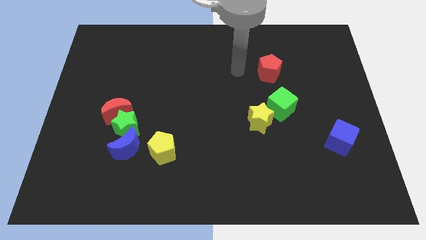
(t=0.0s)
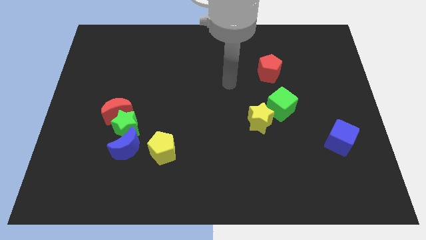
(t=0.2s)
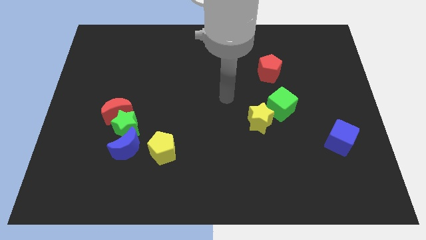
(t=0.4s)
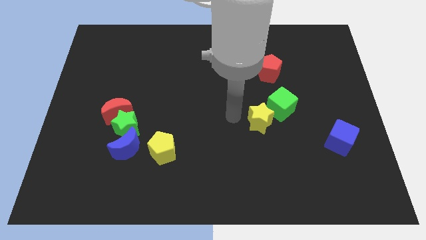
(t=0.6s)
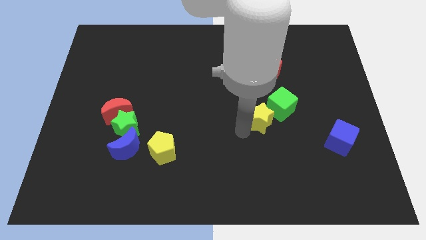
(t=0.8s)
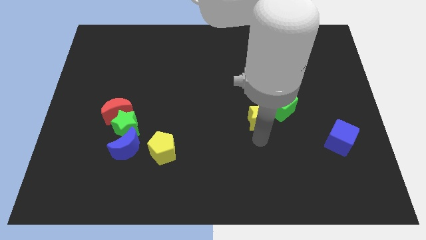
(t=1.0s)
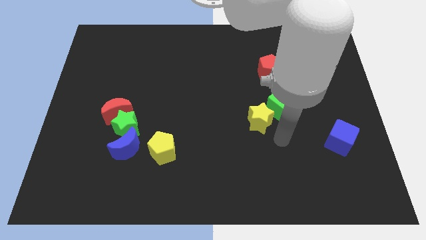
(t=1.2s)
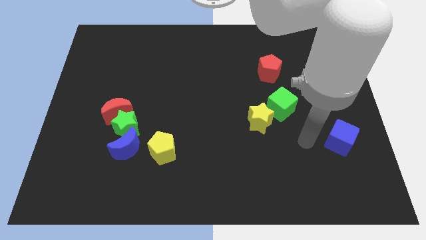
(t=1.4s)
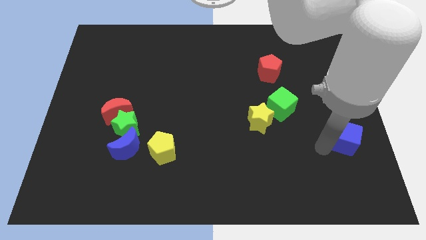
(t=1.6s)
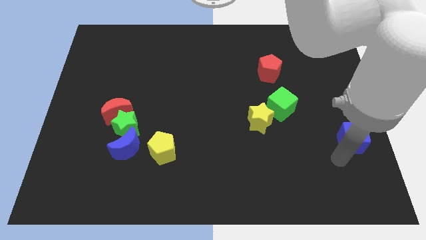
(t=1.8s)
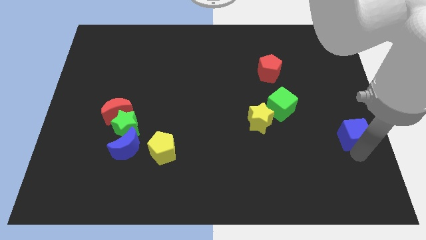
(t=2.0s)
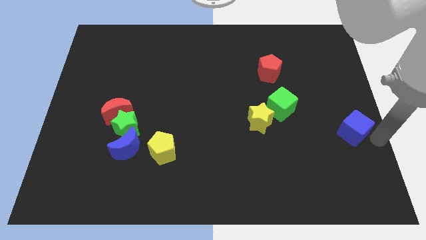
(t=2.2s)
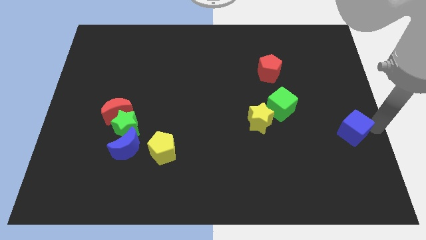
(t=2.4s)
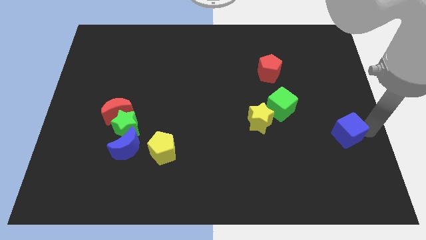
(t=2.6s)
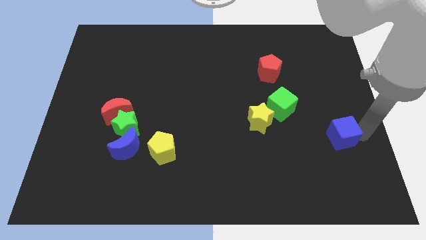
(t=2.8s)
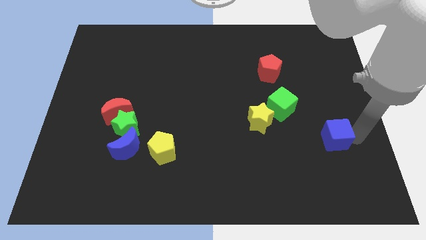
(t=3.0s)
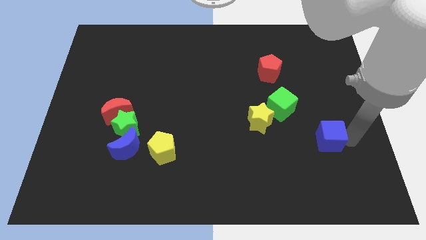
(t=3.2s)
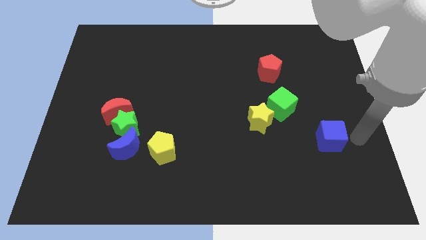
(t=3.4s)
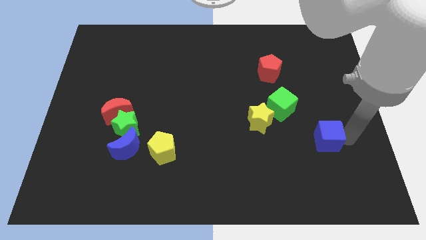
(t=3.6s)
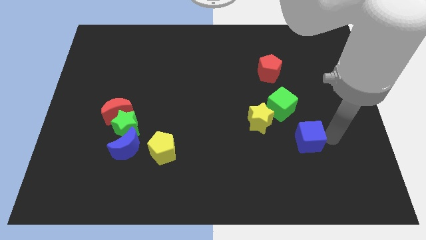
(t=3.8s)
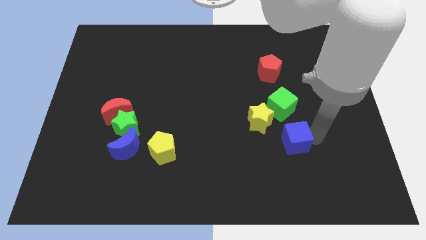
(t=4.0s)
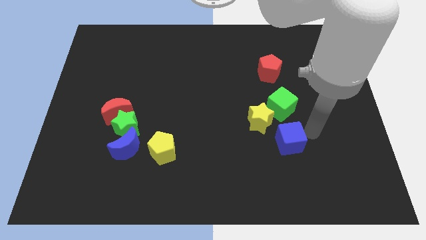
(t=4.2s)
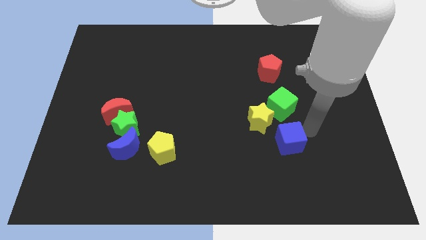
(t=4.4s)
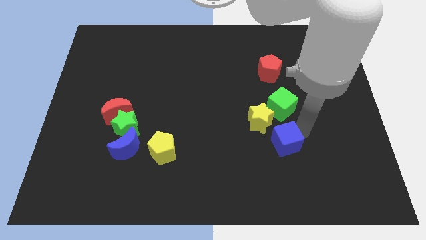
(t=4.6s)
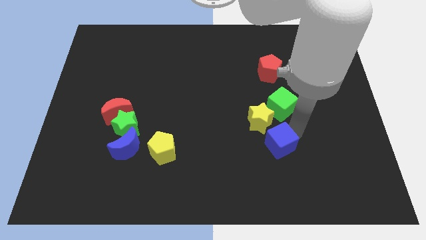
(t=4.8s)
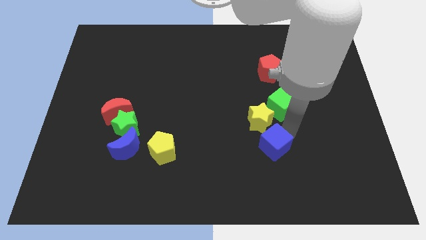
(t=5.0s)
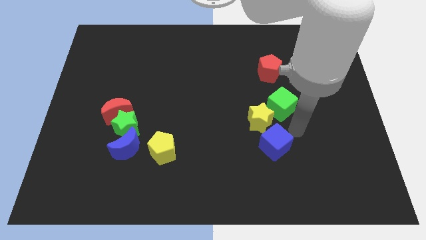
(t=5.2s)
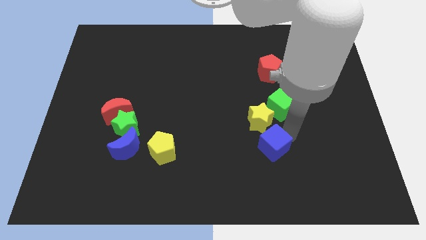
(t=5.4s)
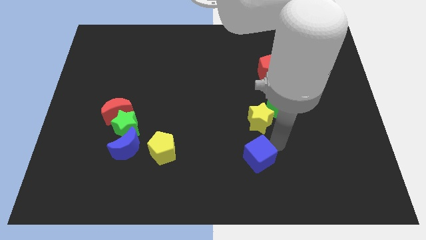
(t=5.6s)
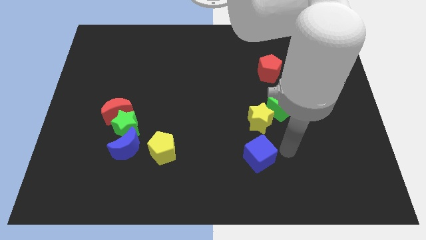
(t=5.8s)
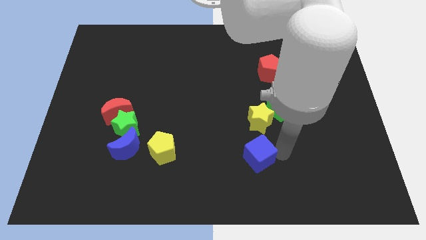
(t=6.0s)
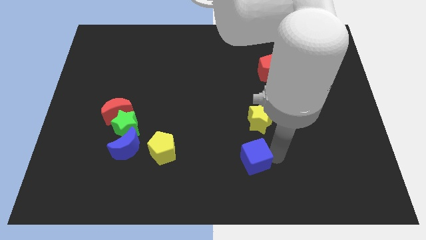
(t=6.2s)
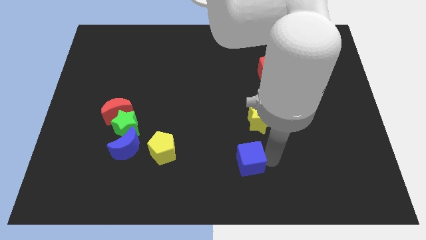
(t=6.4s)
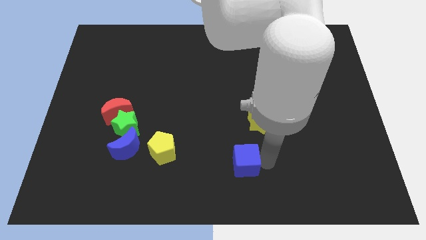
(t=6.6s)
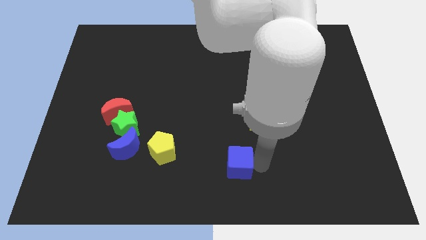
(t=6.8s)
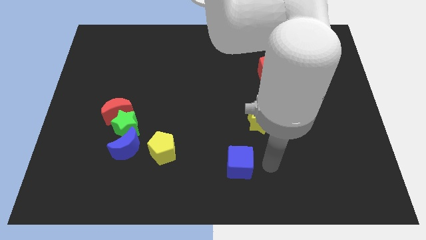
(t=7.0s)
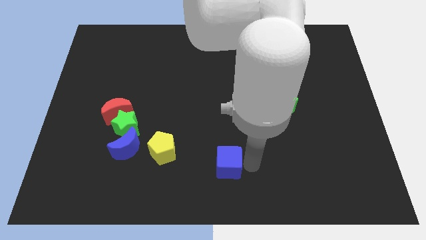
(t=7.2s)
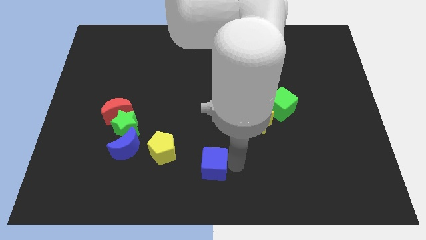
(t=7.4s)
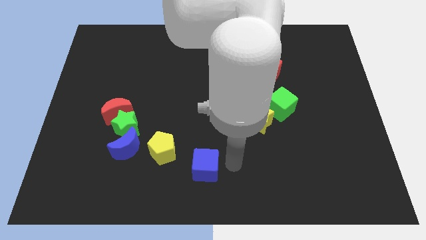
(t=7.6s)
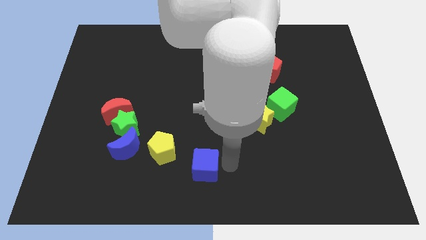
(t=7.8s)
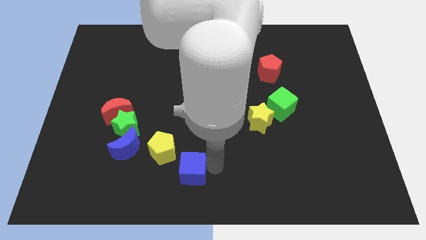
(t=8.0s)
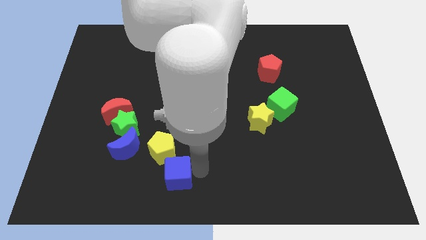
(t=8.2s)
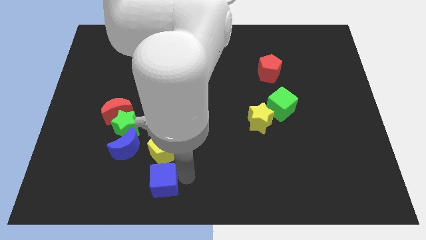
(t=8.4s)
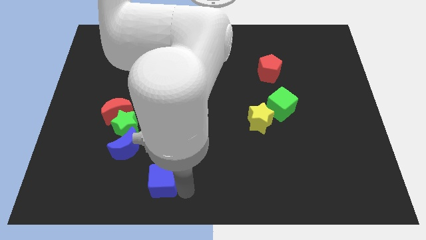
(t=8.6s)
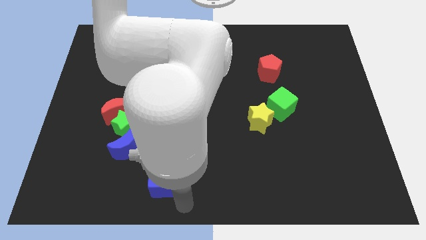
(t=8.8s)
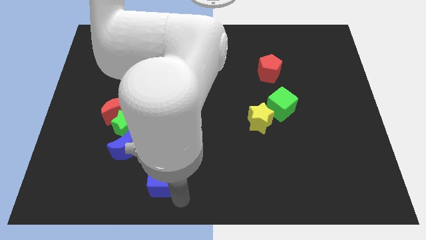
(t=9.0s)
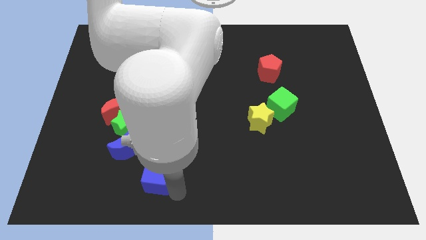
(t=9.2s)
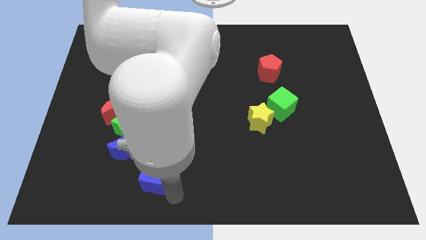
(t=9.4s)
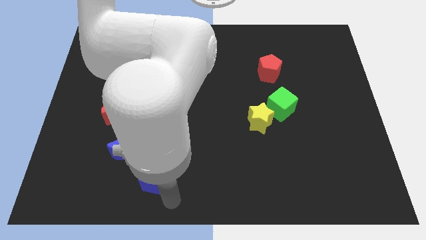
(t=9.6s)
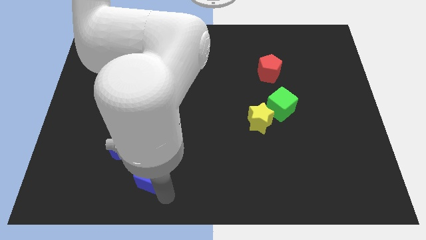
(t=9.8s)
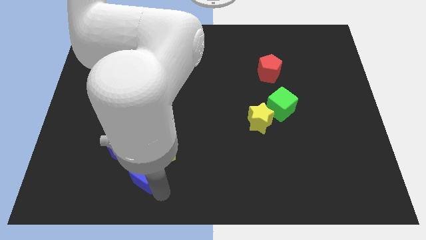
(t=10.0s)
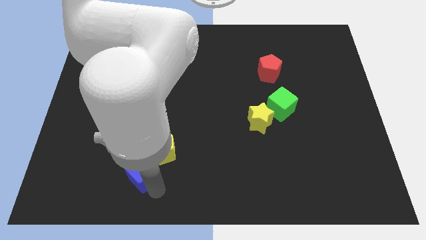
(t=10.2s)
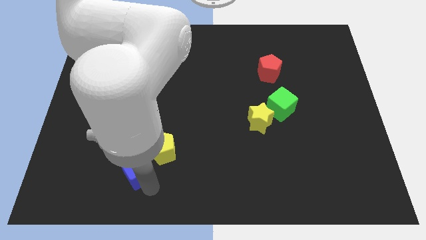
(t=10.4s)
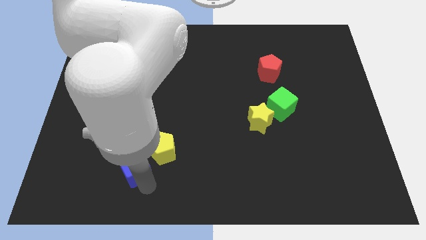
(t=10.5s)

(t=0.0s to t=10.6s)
slide the blue cube to the blue moon

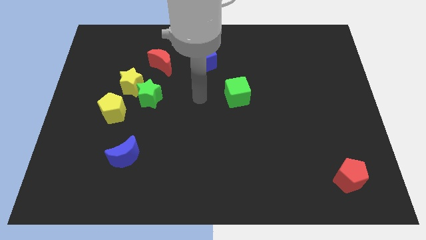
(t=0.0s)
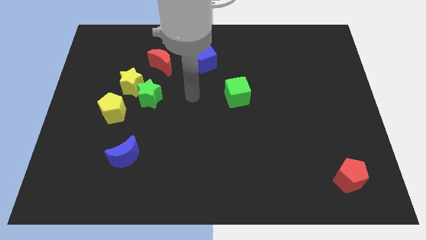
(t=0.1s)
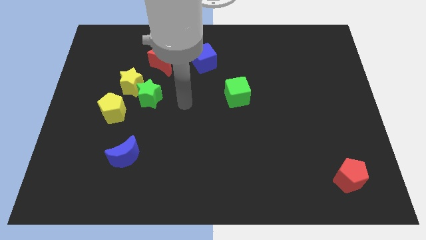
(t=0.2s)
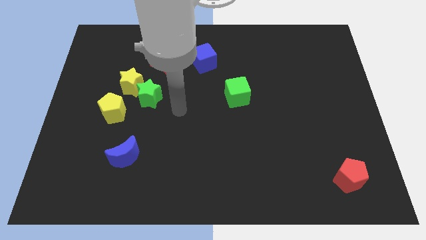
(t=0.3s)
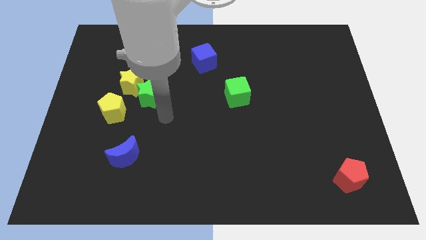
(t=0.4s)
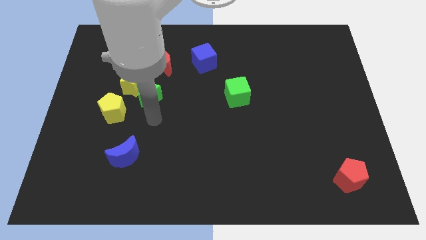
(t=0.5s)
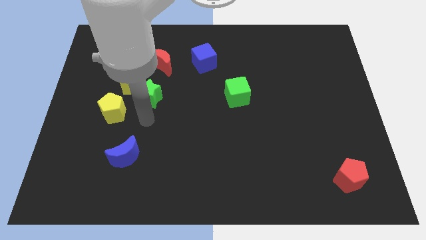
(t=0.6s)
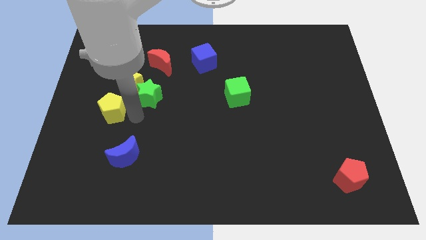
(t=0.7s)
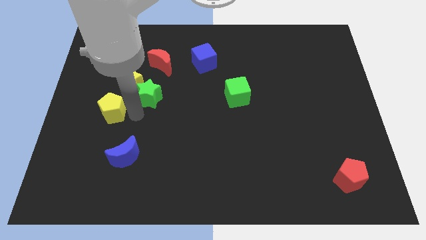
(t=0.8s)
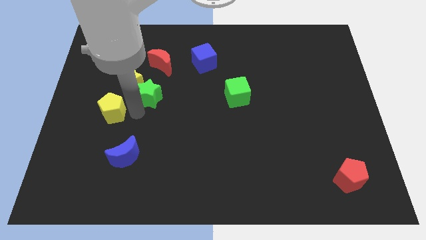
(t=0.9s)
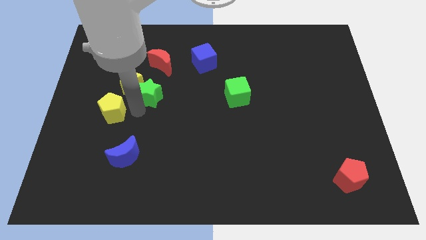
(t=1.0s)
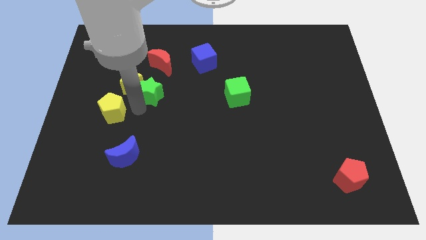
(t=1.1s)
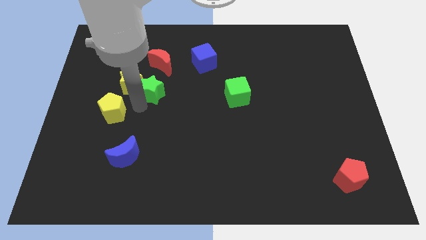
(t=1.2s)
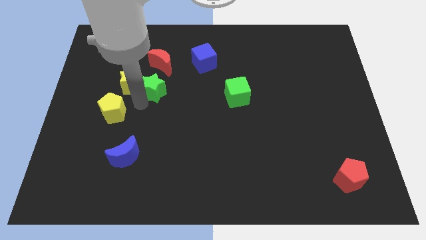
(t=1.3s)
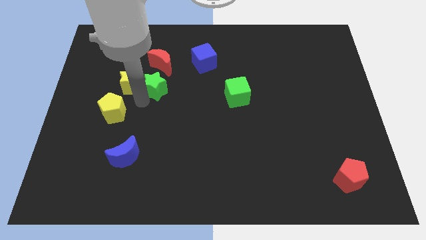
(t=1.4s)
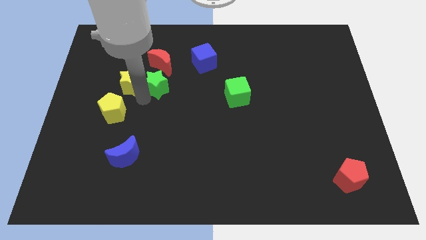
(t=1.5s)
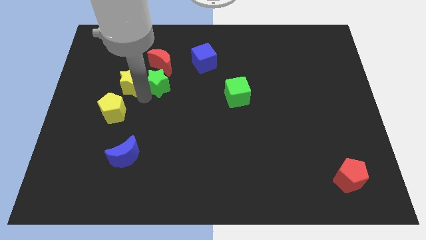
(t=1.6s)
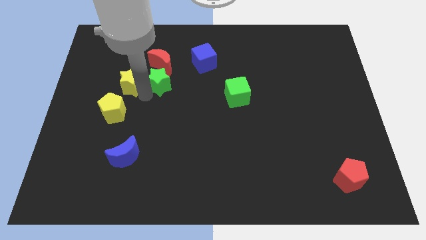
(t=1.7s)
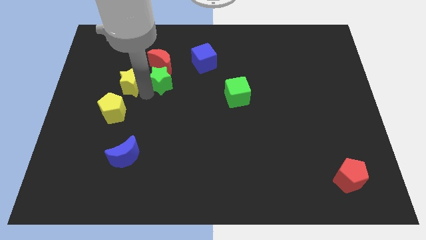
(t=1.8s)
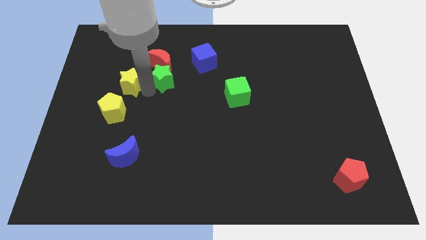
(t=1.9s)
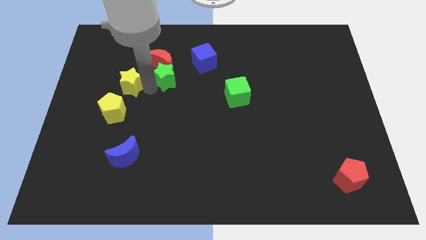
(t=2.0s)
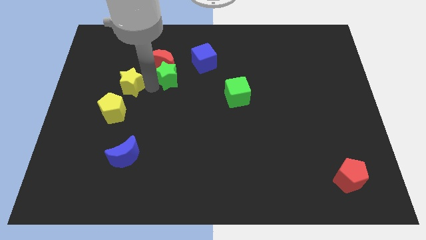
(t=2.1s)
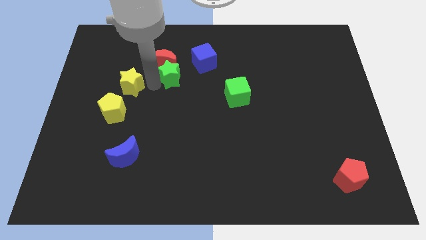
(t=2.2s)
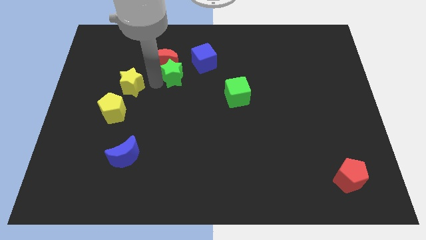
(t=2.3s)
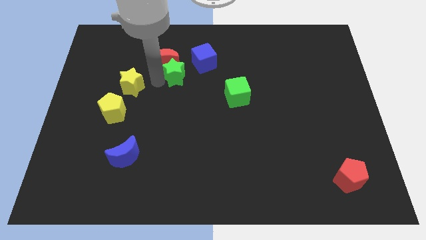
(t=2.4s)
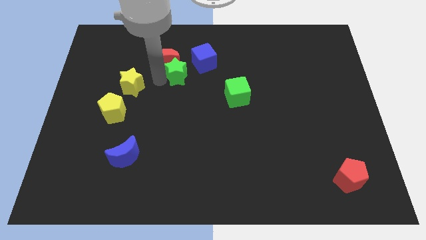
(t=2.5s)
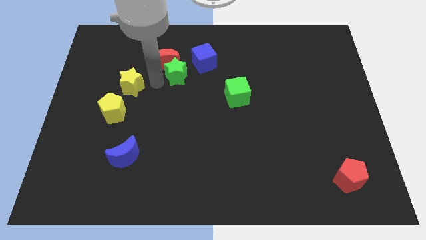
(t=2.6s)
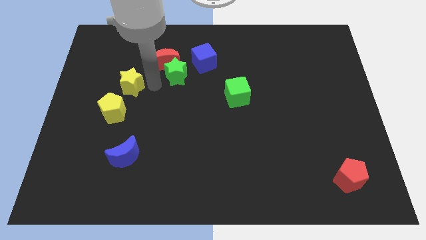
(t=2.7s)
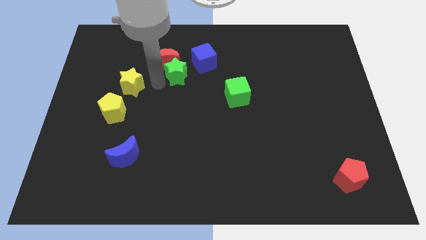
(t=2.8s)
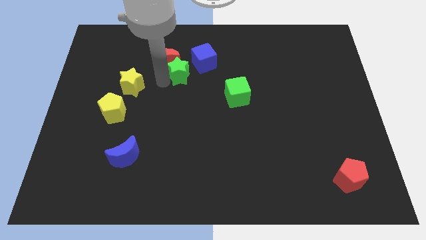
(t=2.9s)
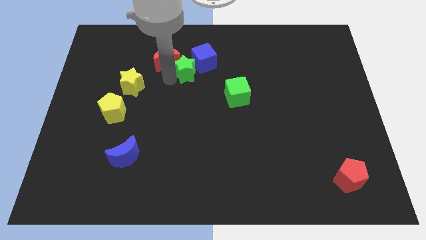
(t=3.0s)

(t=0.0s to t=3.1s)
slide the green star next to the blue cube
